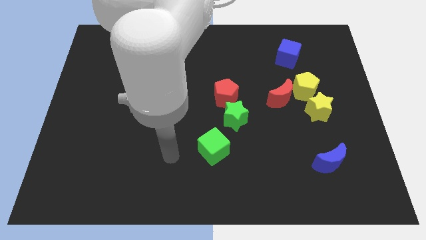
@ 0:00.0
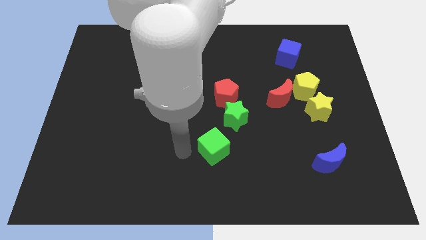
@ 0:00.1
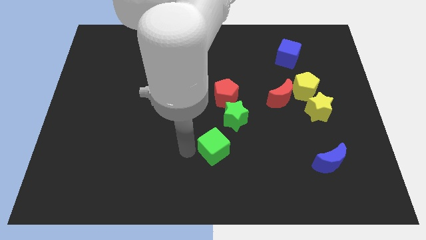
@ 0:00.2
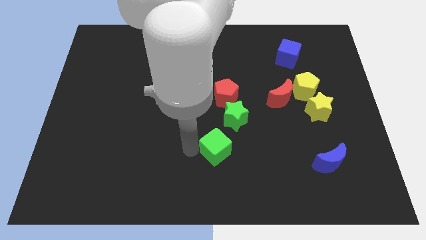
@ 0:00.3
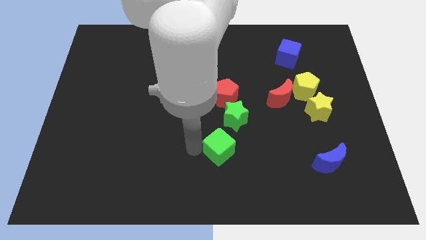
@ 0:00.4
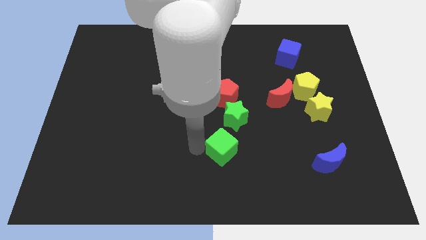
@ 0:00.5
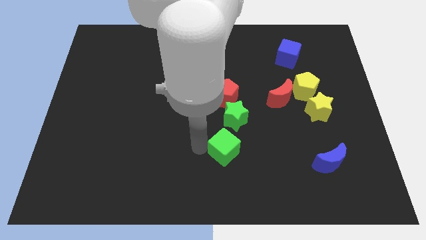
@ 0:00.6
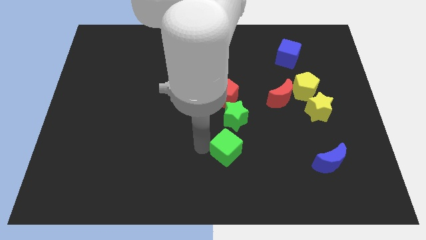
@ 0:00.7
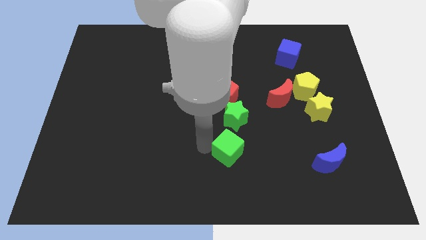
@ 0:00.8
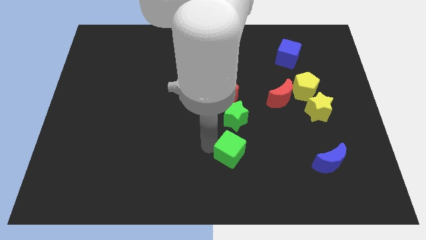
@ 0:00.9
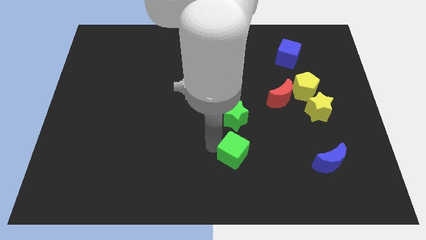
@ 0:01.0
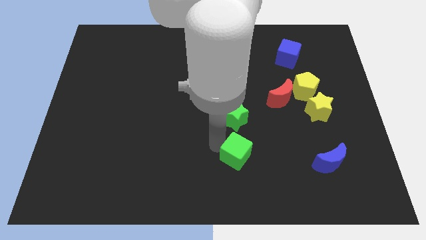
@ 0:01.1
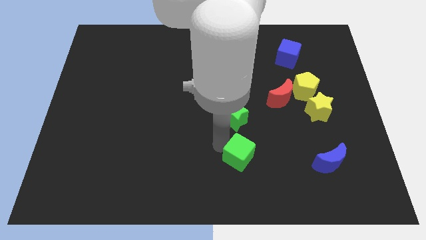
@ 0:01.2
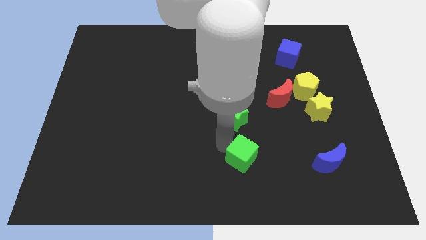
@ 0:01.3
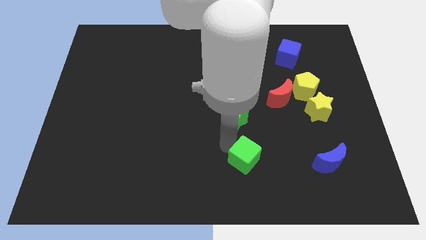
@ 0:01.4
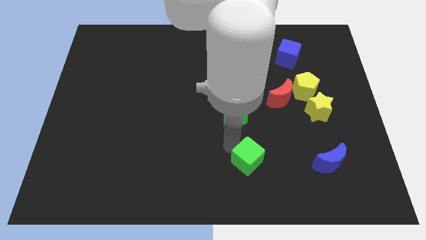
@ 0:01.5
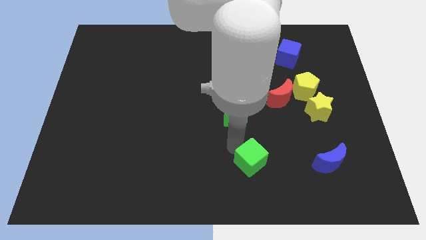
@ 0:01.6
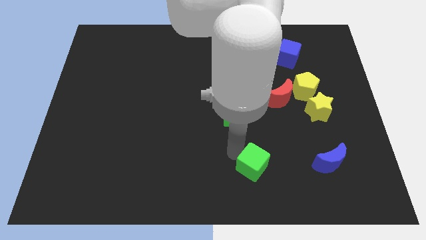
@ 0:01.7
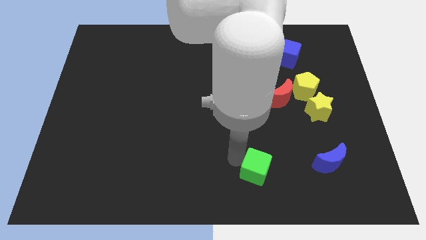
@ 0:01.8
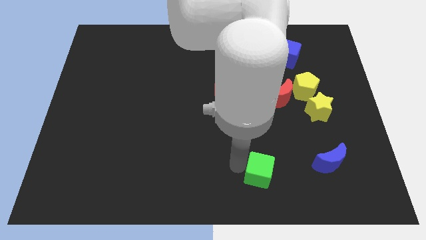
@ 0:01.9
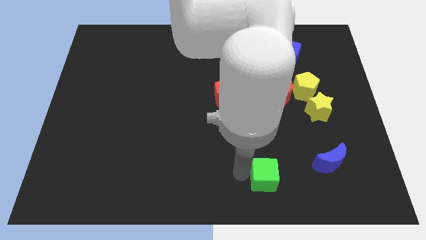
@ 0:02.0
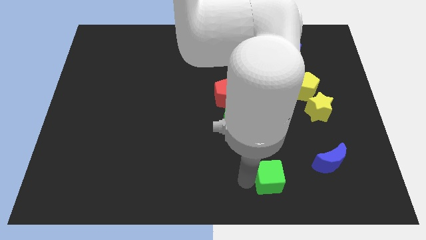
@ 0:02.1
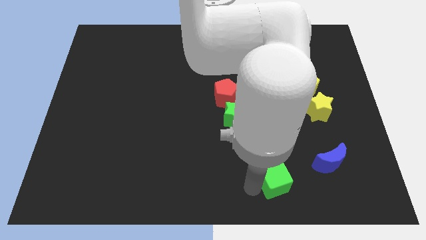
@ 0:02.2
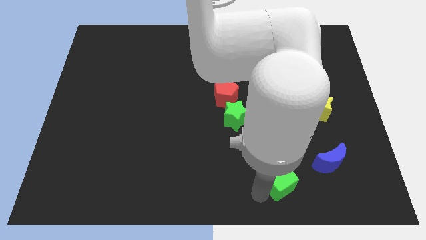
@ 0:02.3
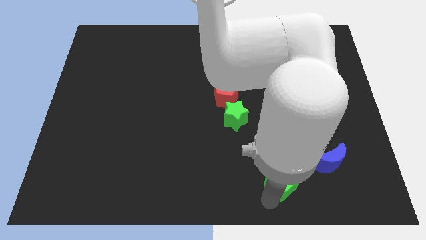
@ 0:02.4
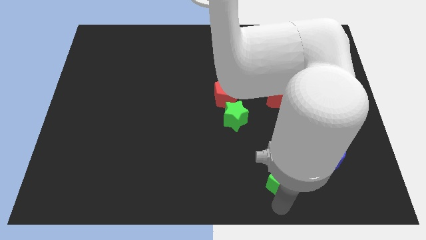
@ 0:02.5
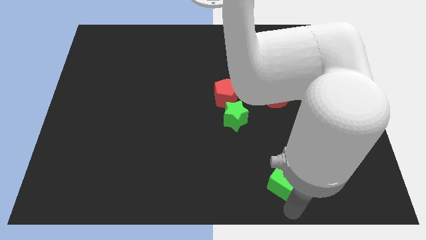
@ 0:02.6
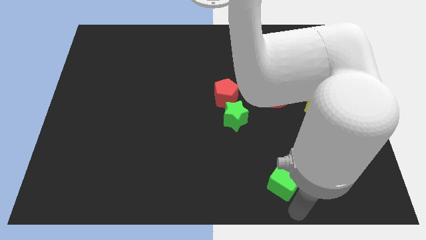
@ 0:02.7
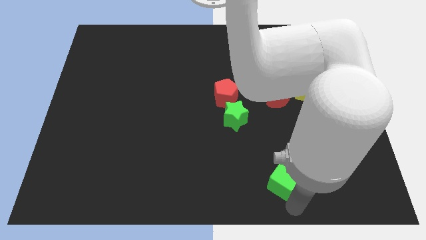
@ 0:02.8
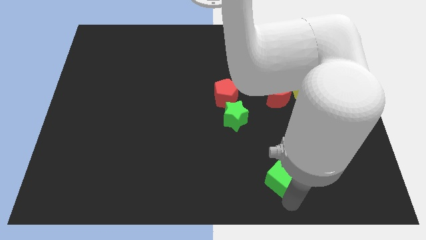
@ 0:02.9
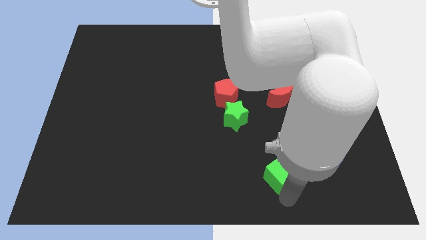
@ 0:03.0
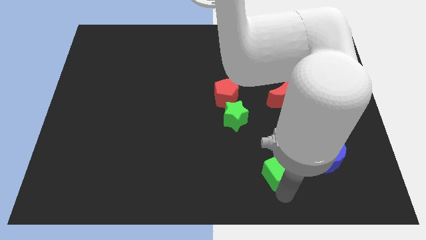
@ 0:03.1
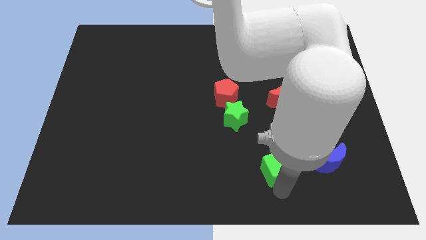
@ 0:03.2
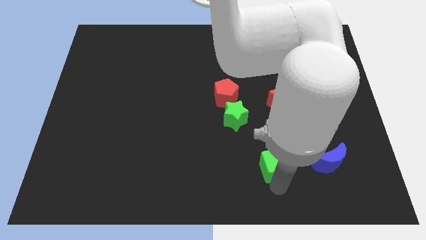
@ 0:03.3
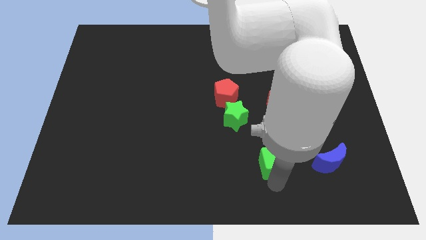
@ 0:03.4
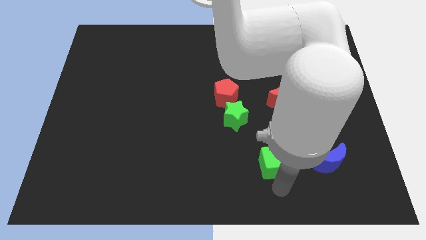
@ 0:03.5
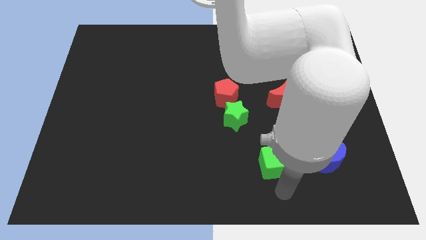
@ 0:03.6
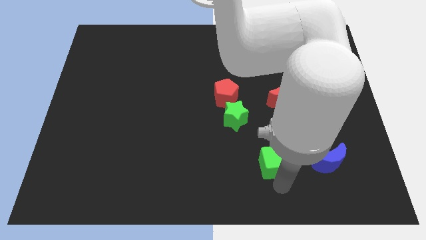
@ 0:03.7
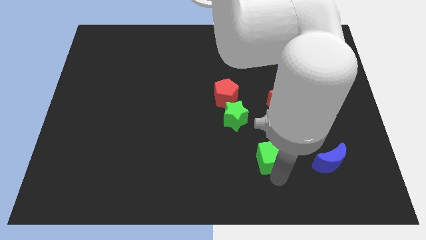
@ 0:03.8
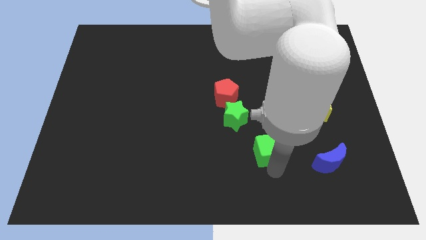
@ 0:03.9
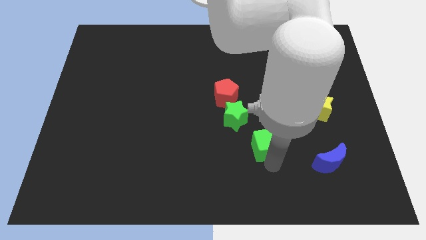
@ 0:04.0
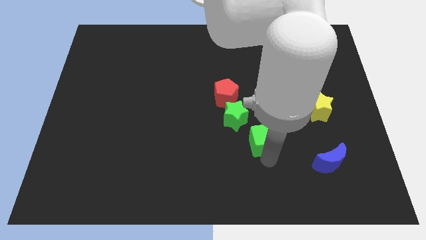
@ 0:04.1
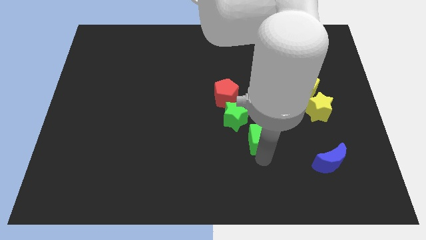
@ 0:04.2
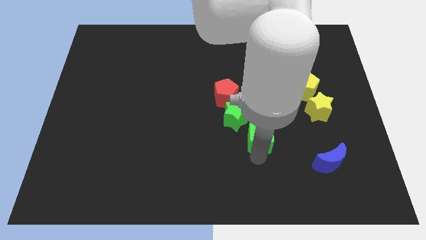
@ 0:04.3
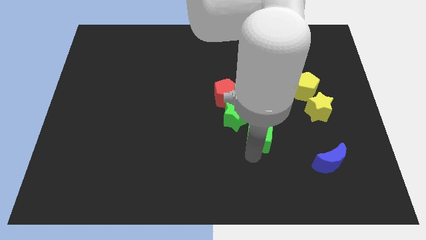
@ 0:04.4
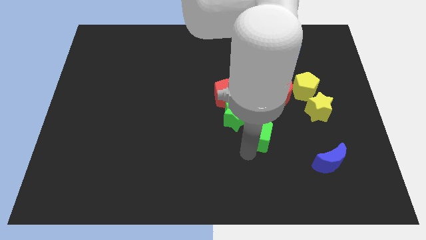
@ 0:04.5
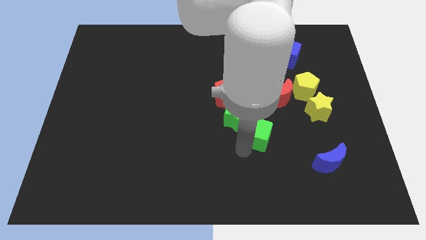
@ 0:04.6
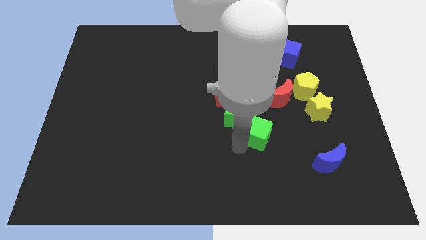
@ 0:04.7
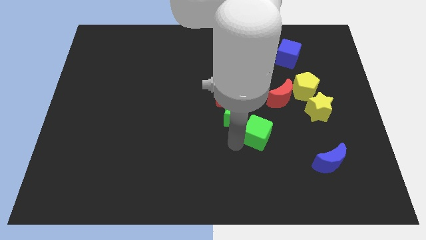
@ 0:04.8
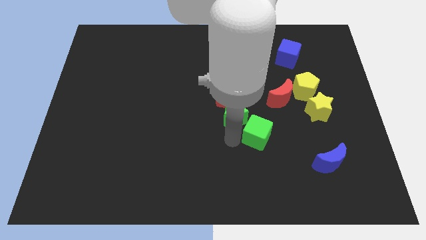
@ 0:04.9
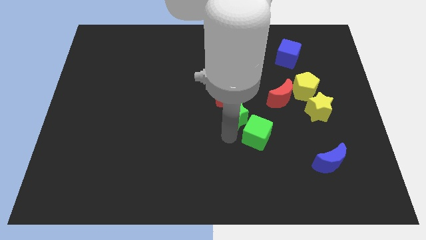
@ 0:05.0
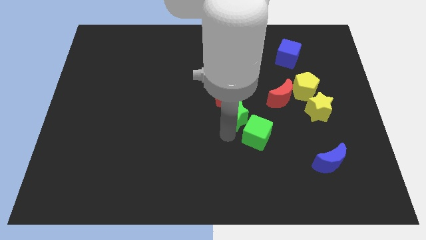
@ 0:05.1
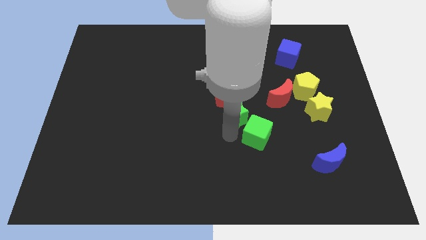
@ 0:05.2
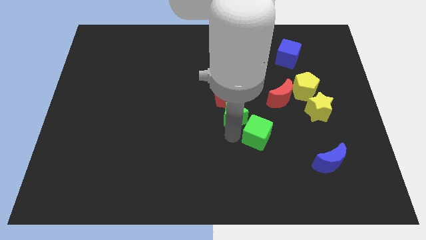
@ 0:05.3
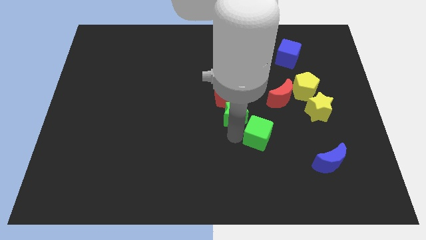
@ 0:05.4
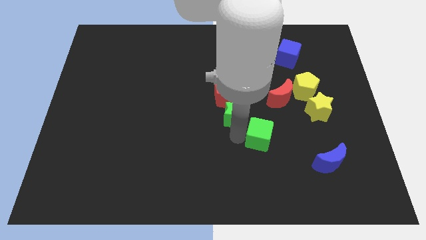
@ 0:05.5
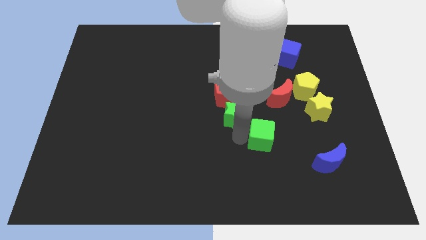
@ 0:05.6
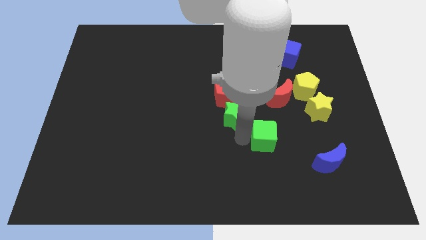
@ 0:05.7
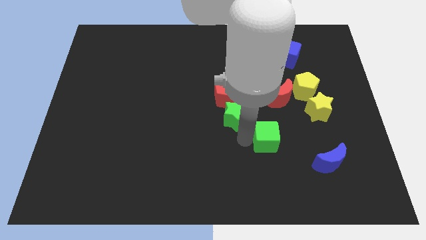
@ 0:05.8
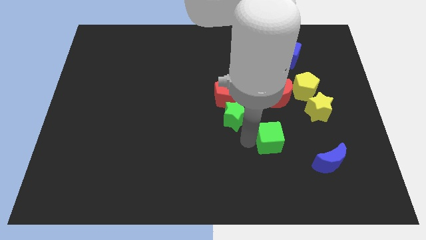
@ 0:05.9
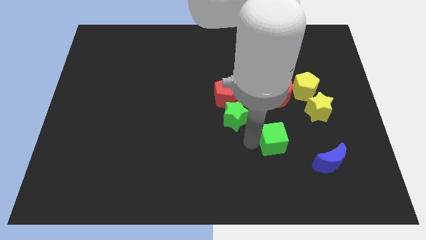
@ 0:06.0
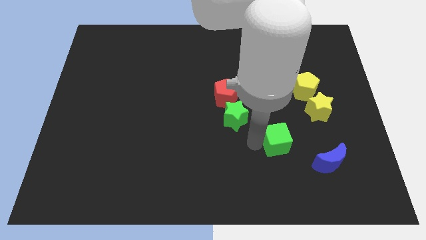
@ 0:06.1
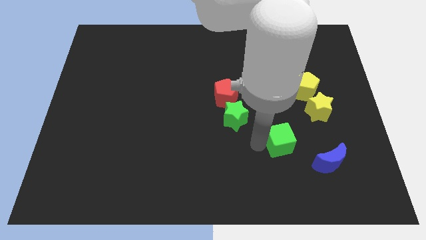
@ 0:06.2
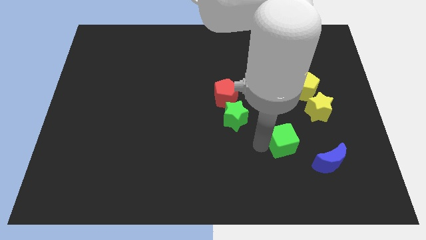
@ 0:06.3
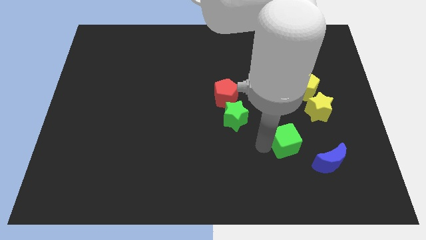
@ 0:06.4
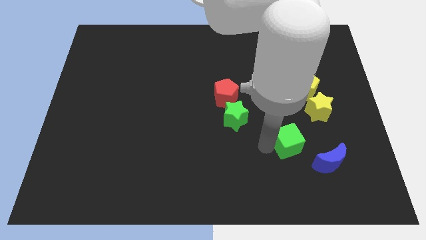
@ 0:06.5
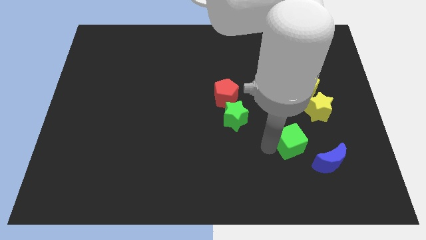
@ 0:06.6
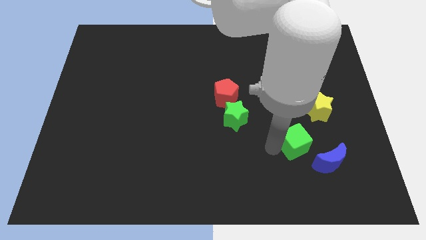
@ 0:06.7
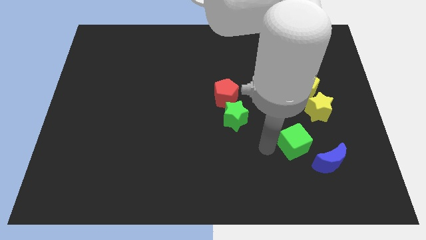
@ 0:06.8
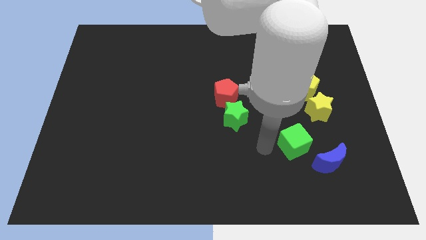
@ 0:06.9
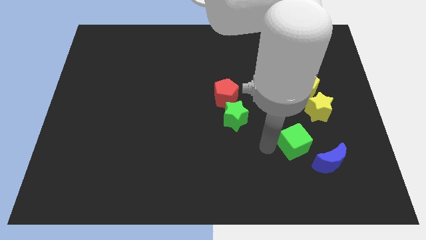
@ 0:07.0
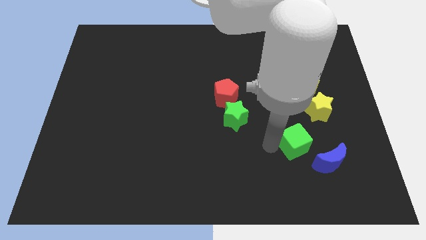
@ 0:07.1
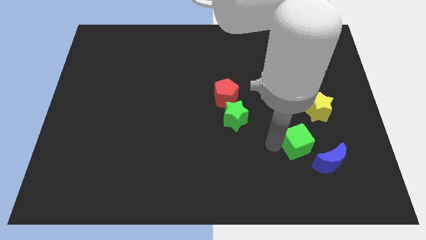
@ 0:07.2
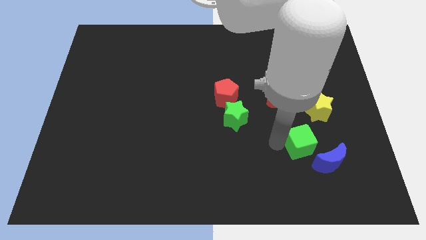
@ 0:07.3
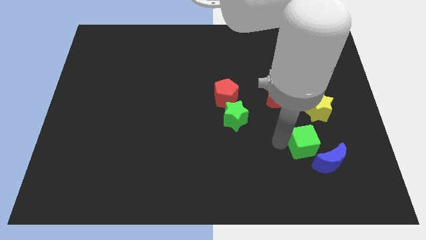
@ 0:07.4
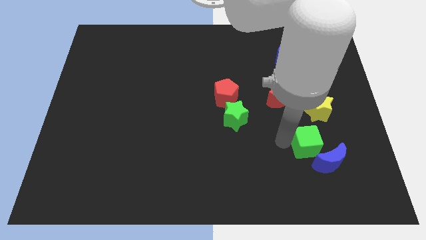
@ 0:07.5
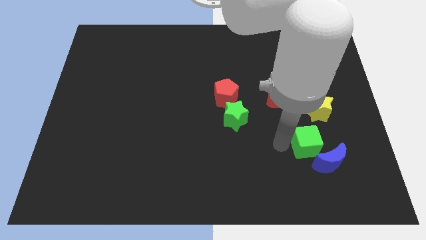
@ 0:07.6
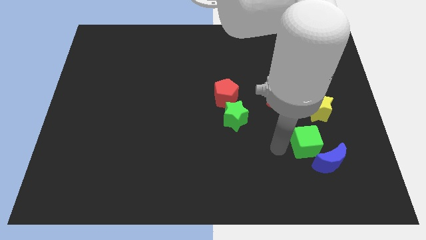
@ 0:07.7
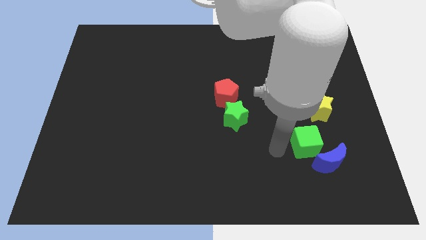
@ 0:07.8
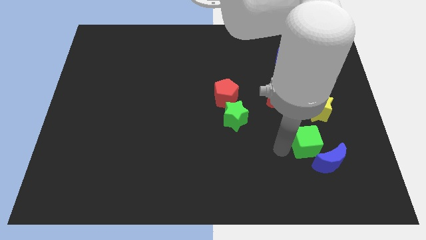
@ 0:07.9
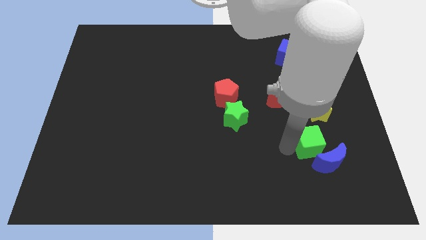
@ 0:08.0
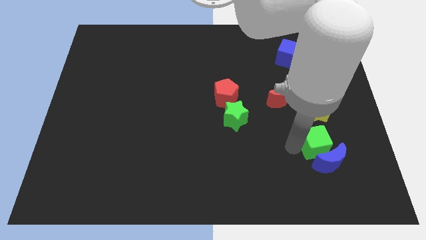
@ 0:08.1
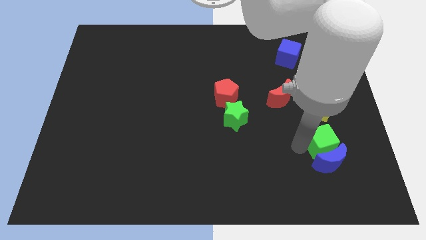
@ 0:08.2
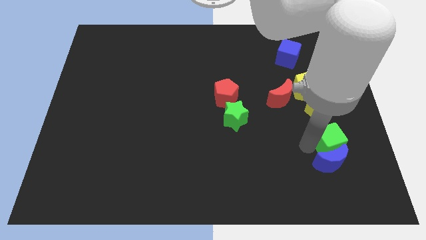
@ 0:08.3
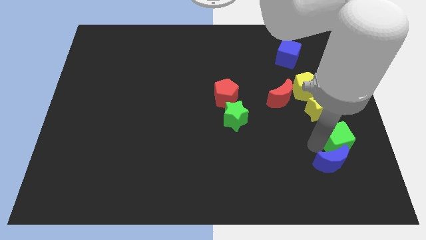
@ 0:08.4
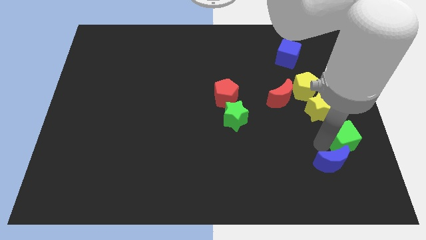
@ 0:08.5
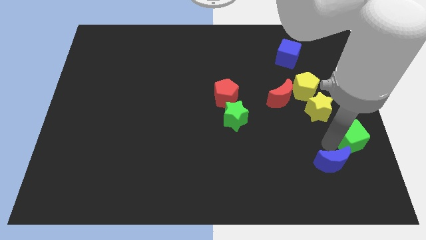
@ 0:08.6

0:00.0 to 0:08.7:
slide the green cube to the center right
